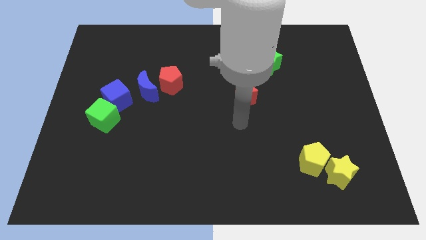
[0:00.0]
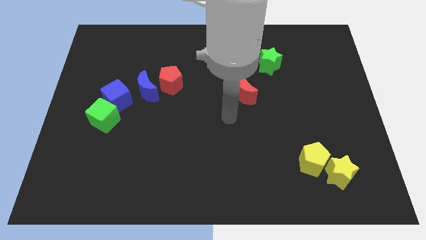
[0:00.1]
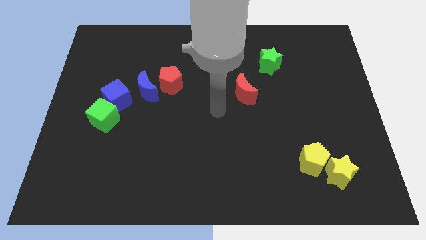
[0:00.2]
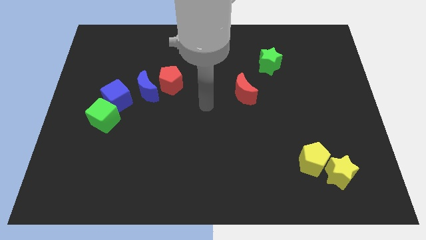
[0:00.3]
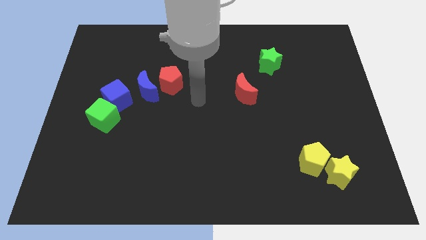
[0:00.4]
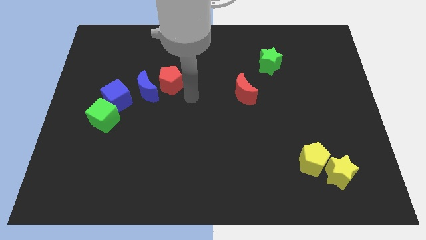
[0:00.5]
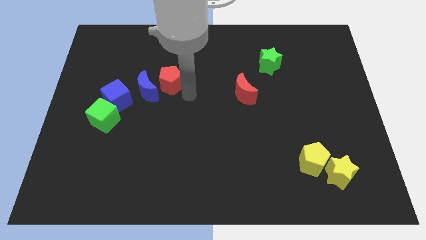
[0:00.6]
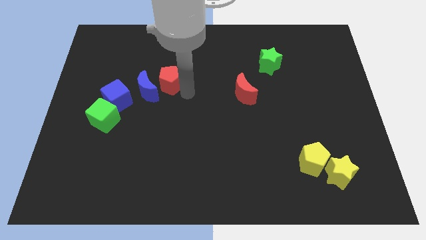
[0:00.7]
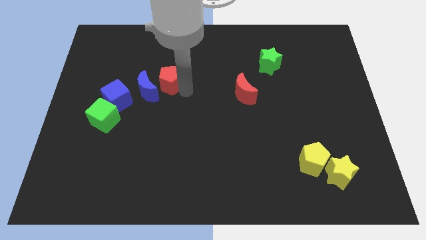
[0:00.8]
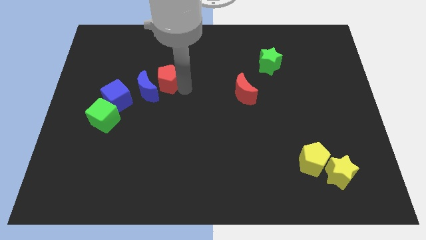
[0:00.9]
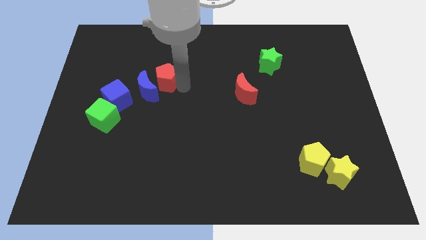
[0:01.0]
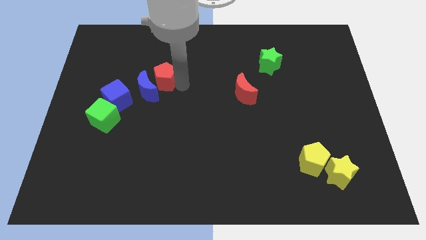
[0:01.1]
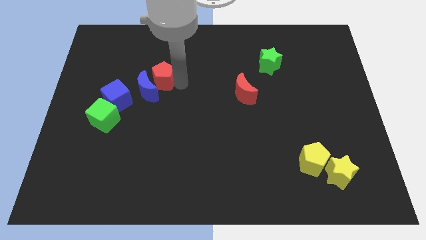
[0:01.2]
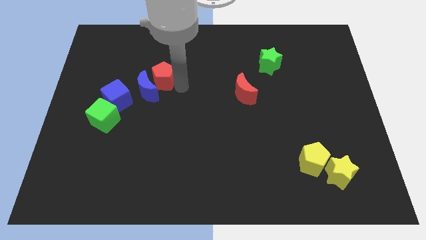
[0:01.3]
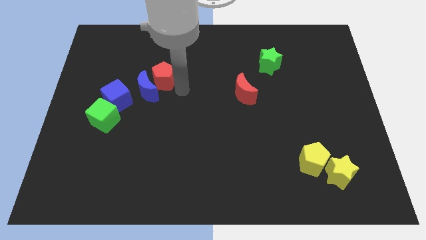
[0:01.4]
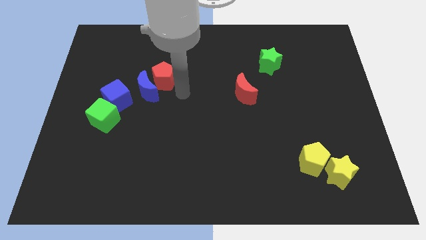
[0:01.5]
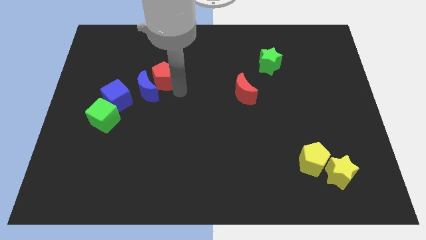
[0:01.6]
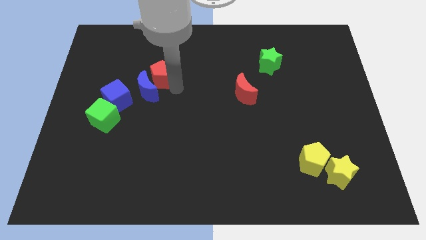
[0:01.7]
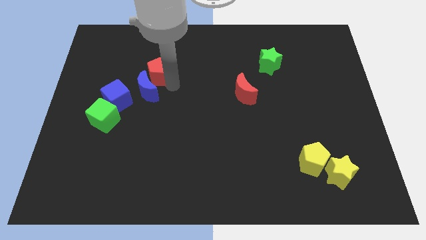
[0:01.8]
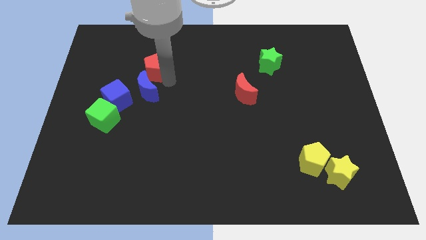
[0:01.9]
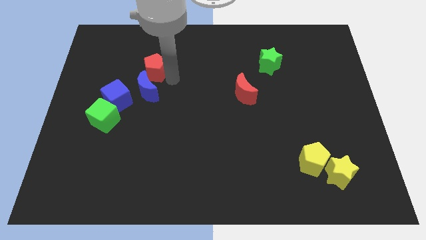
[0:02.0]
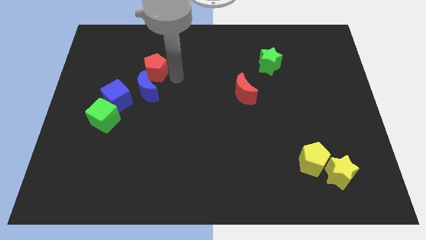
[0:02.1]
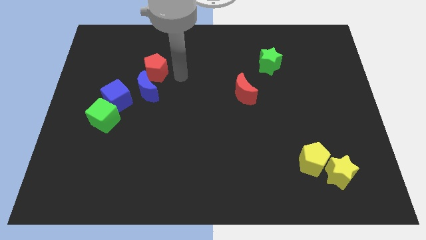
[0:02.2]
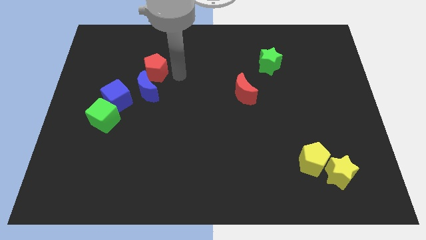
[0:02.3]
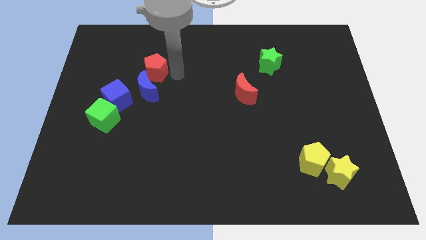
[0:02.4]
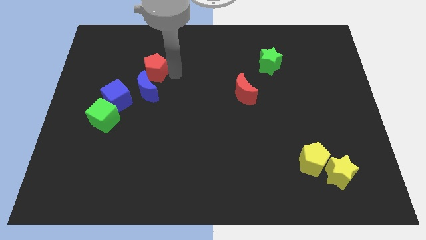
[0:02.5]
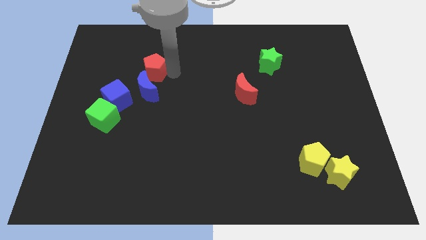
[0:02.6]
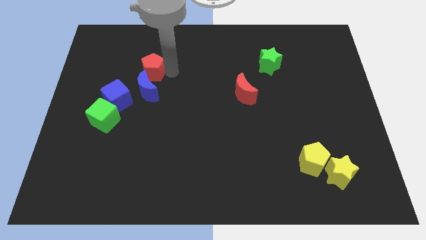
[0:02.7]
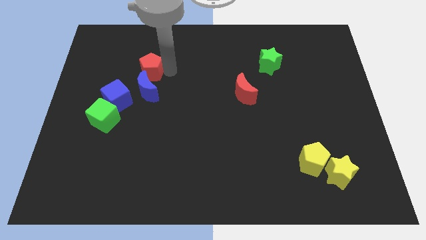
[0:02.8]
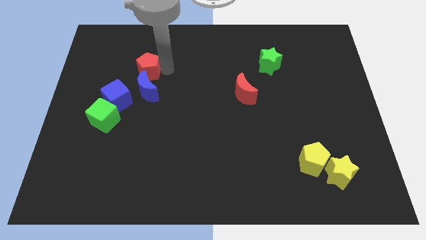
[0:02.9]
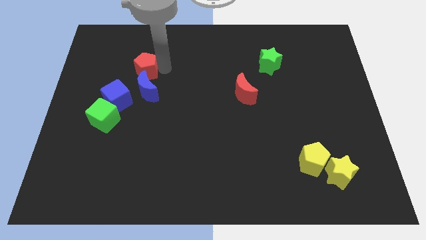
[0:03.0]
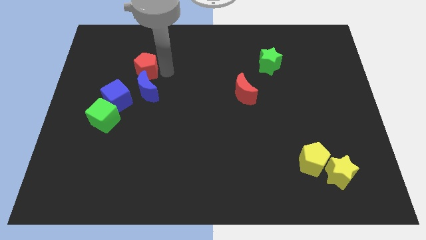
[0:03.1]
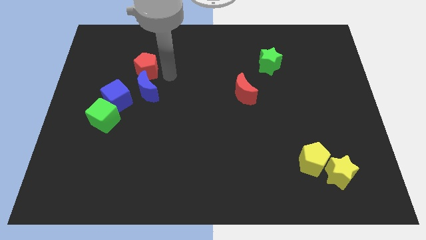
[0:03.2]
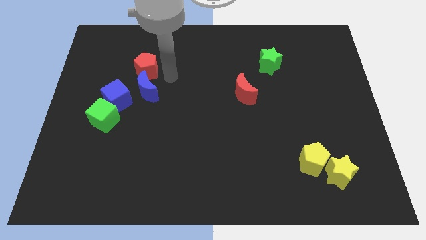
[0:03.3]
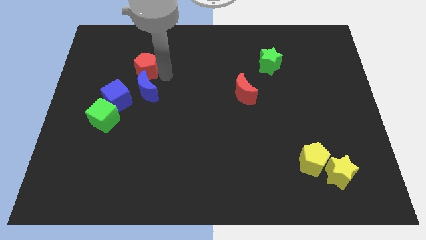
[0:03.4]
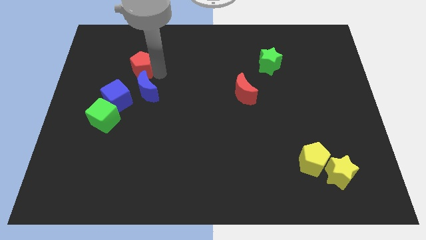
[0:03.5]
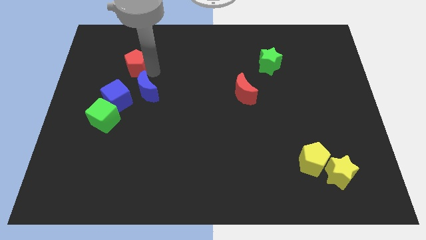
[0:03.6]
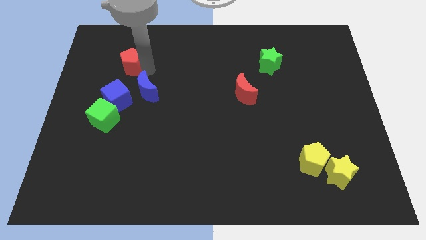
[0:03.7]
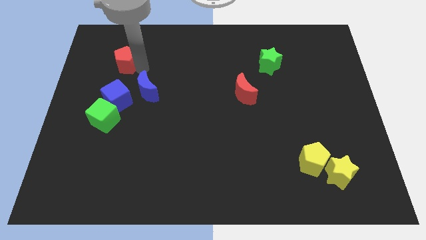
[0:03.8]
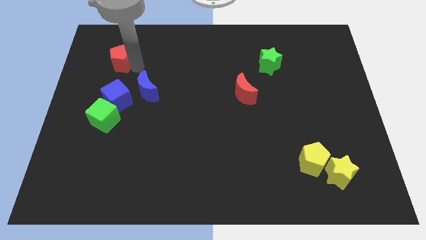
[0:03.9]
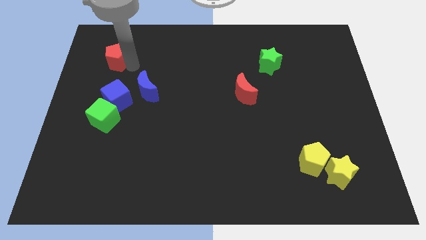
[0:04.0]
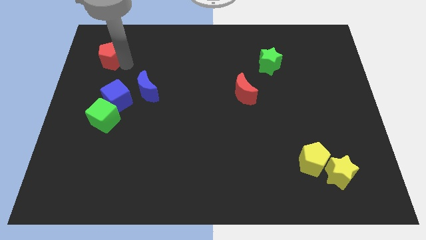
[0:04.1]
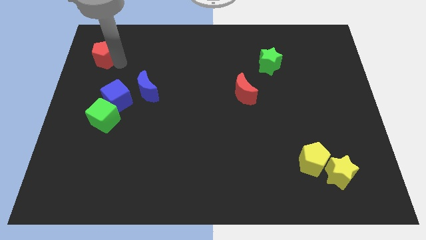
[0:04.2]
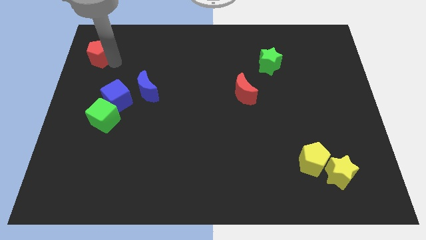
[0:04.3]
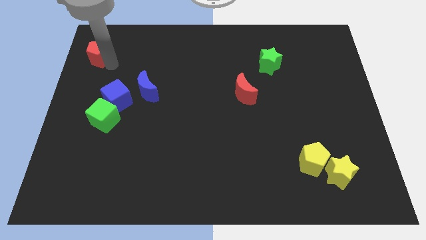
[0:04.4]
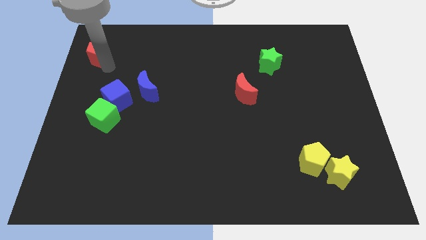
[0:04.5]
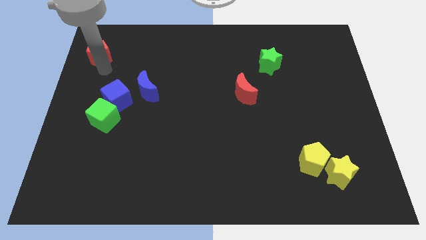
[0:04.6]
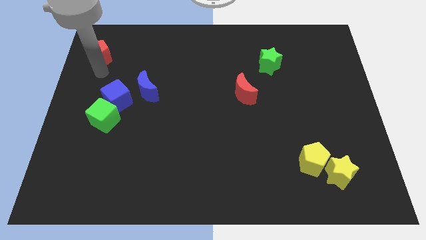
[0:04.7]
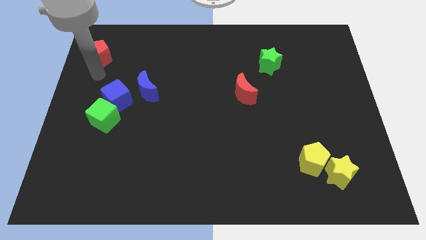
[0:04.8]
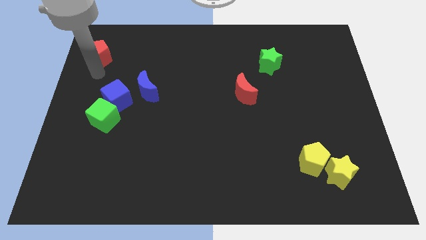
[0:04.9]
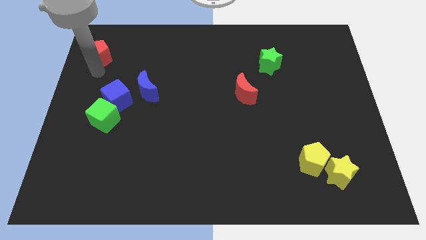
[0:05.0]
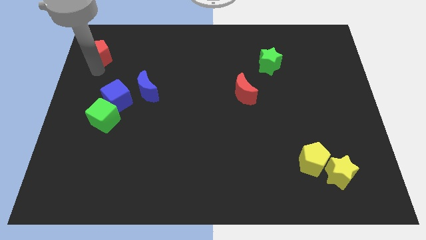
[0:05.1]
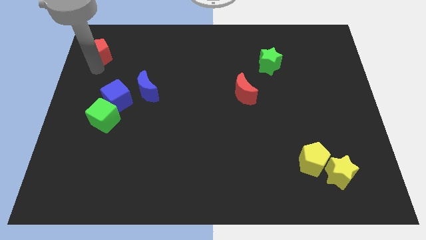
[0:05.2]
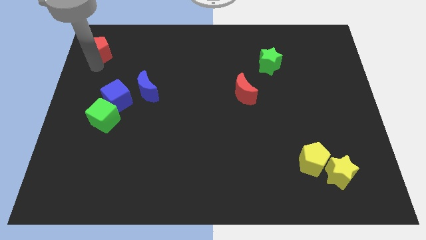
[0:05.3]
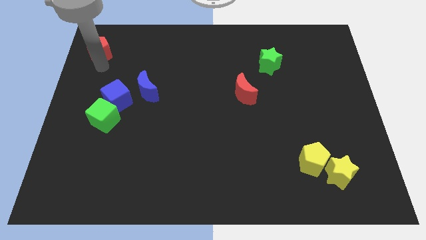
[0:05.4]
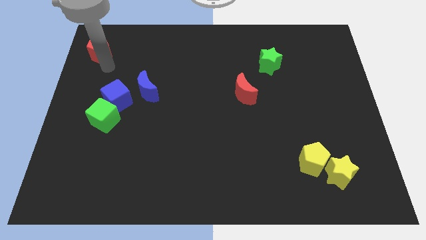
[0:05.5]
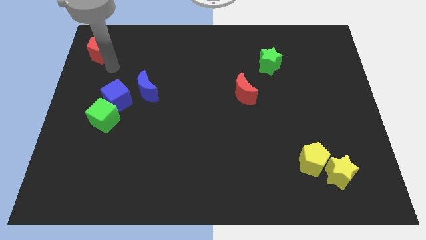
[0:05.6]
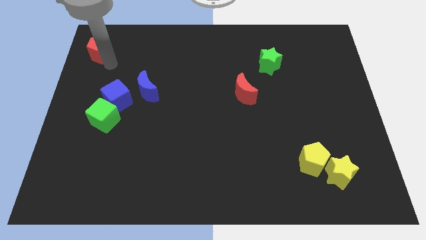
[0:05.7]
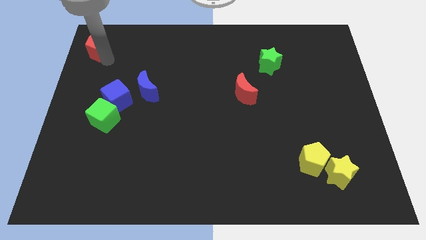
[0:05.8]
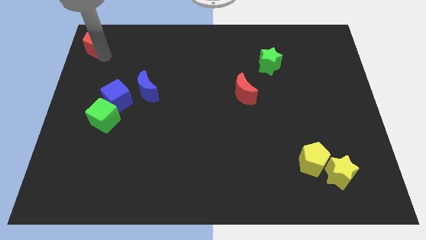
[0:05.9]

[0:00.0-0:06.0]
put the red pentagon to the upper left corner
